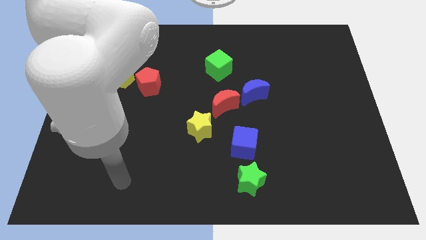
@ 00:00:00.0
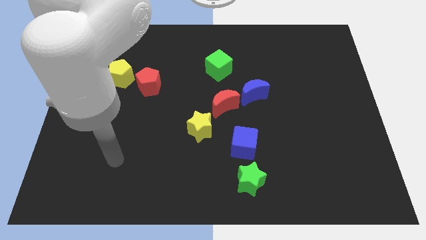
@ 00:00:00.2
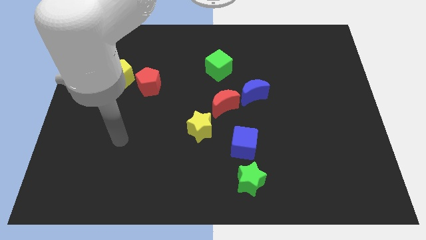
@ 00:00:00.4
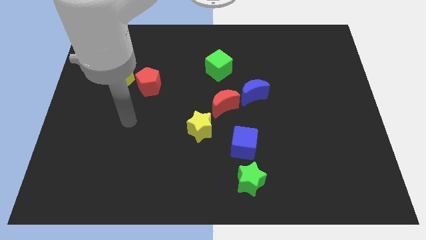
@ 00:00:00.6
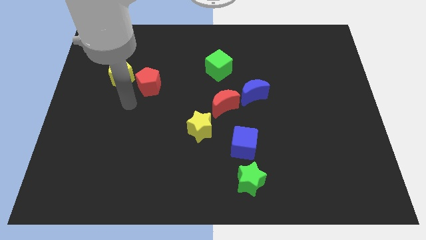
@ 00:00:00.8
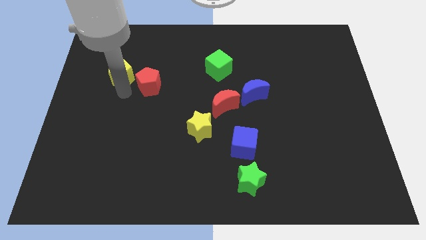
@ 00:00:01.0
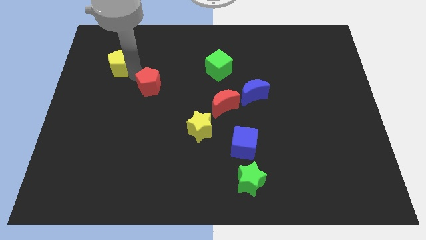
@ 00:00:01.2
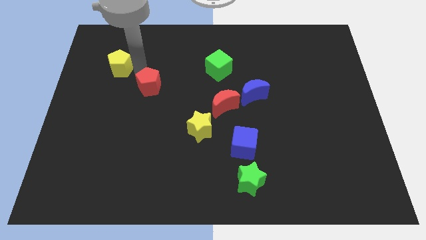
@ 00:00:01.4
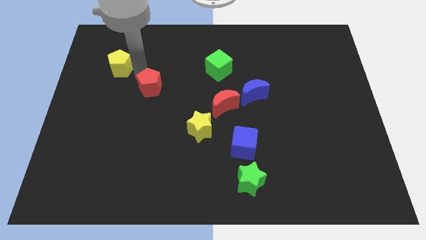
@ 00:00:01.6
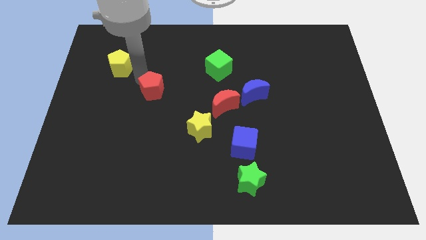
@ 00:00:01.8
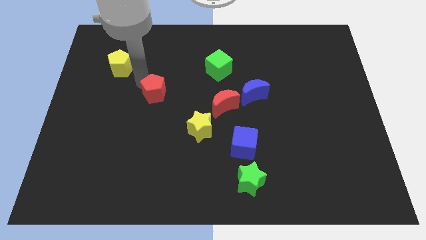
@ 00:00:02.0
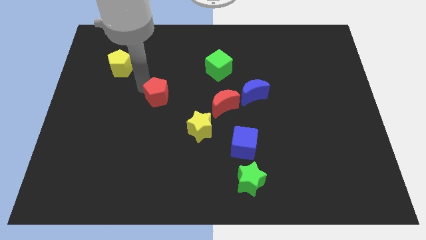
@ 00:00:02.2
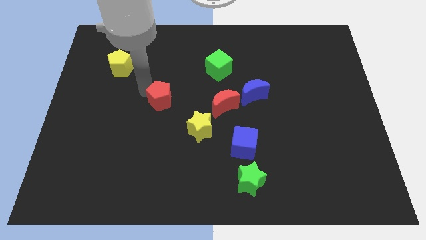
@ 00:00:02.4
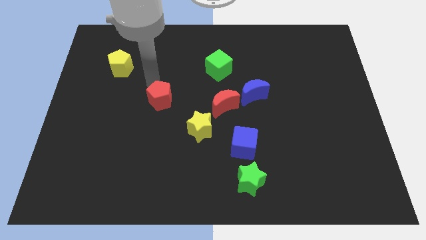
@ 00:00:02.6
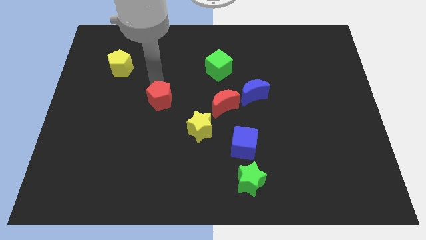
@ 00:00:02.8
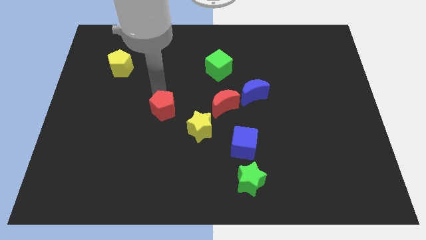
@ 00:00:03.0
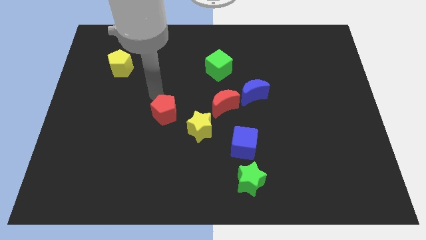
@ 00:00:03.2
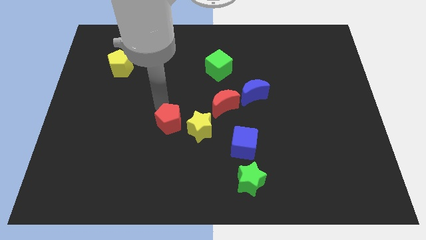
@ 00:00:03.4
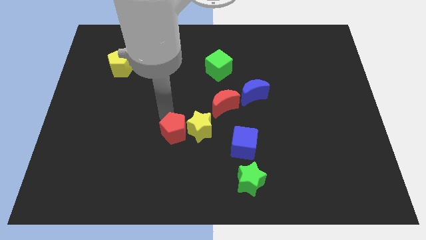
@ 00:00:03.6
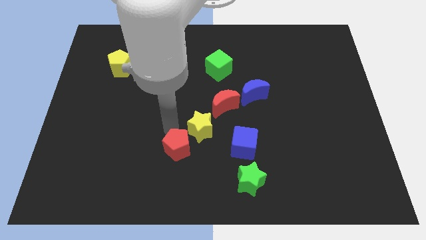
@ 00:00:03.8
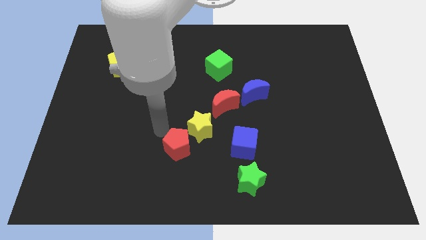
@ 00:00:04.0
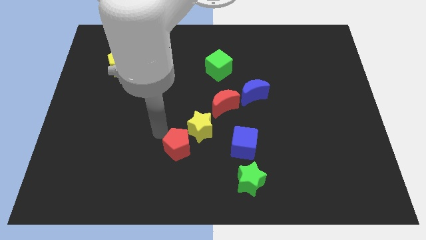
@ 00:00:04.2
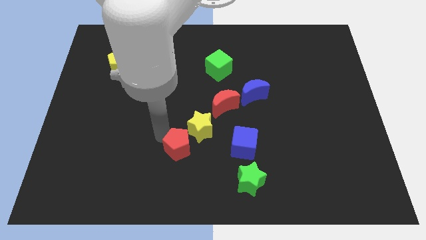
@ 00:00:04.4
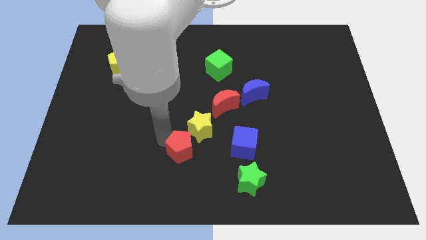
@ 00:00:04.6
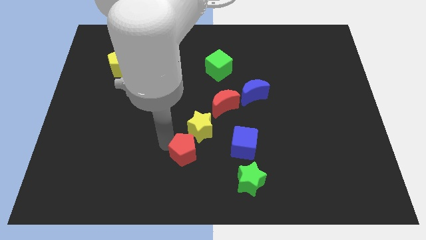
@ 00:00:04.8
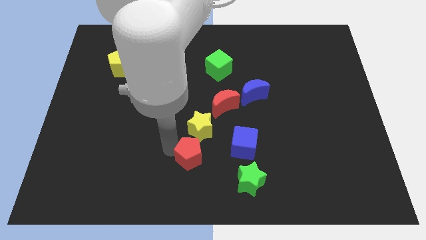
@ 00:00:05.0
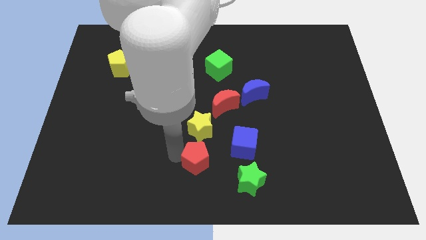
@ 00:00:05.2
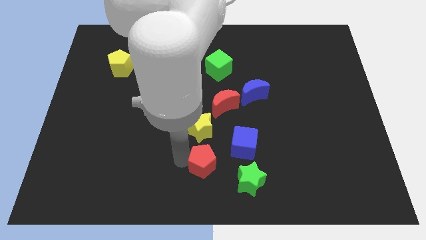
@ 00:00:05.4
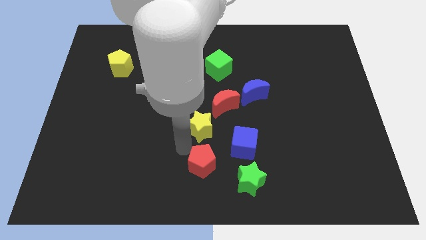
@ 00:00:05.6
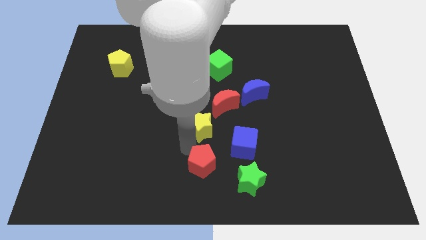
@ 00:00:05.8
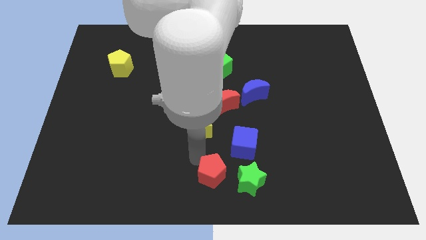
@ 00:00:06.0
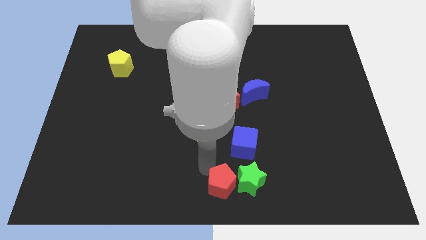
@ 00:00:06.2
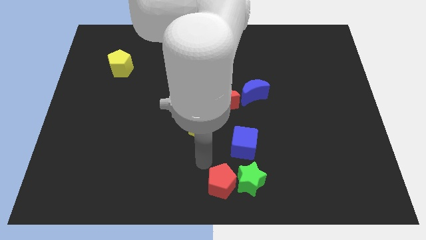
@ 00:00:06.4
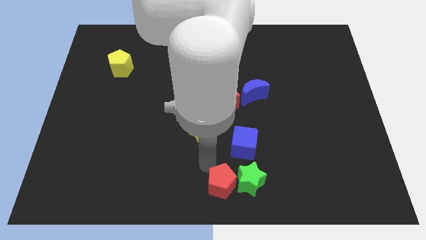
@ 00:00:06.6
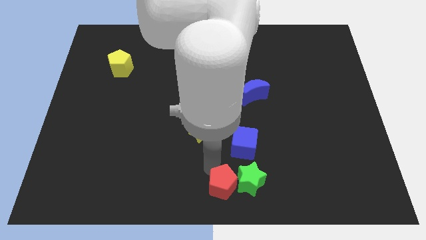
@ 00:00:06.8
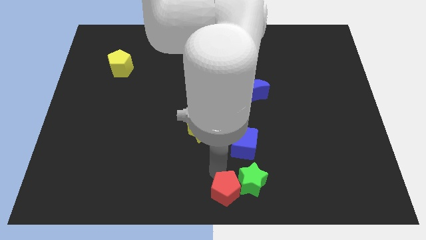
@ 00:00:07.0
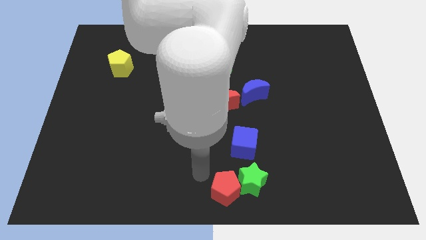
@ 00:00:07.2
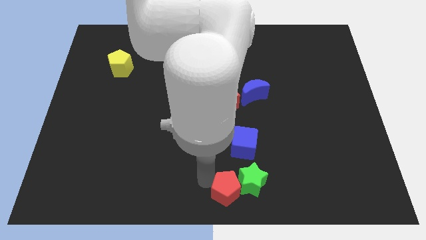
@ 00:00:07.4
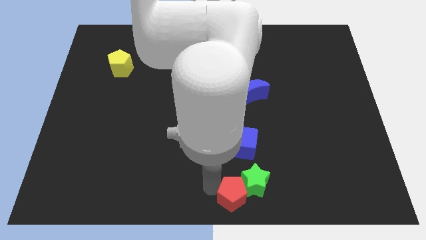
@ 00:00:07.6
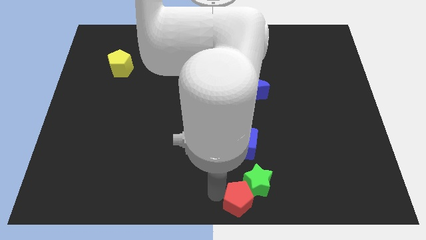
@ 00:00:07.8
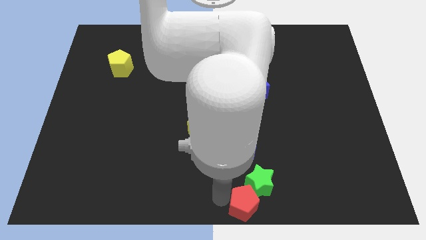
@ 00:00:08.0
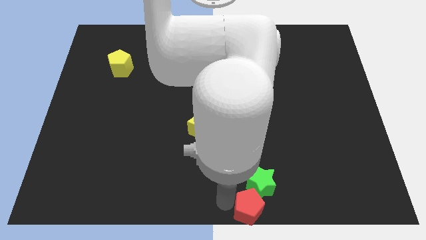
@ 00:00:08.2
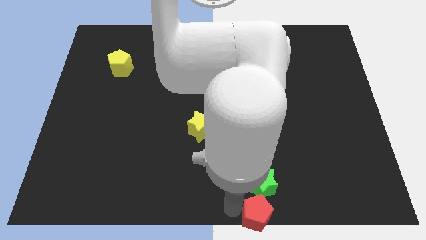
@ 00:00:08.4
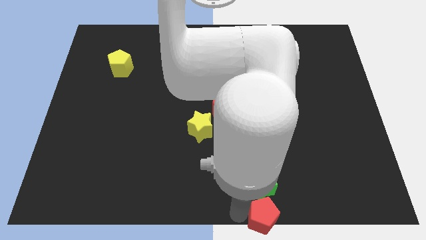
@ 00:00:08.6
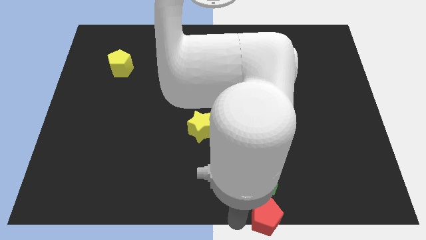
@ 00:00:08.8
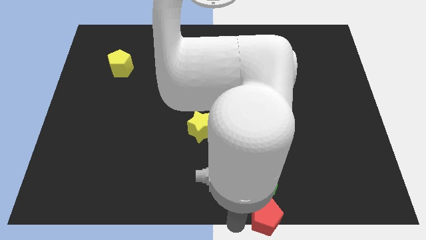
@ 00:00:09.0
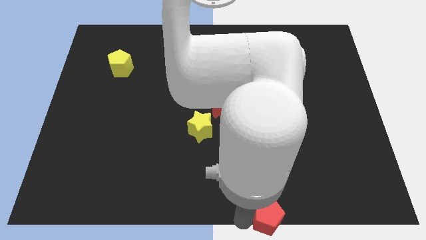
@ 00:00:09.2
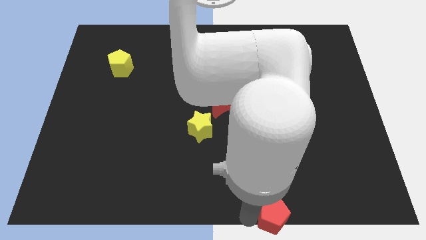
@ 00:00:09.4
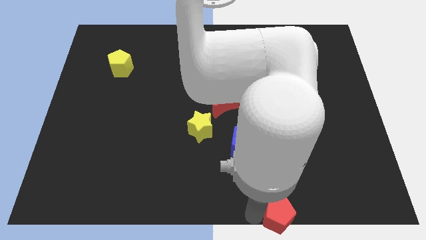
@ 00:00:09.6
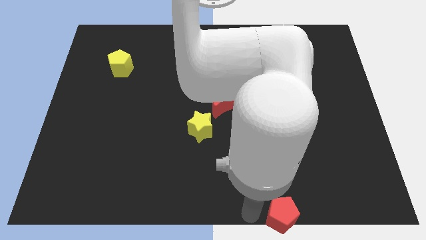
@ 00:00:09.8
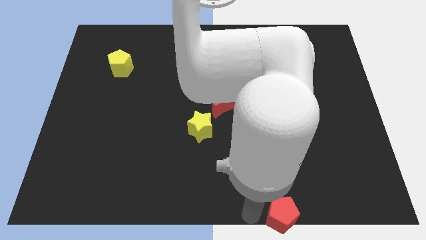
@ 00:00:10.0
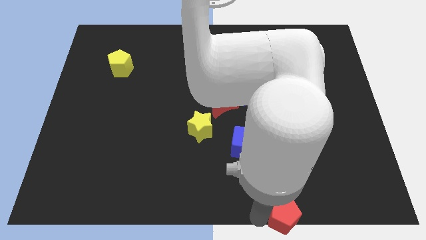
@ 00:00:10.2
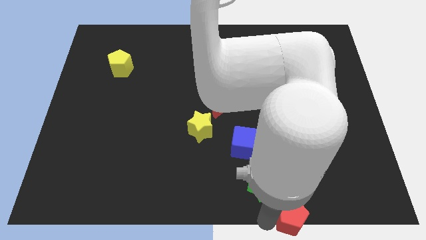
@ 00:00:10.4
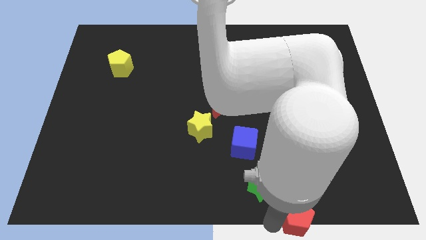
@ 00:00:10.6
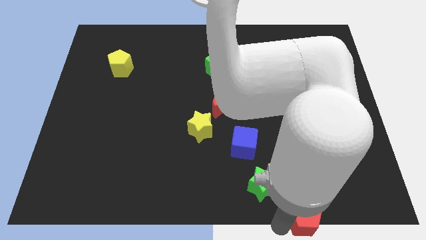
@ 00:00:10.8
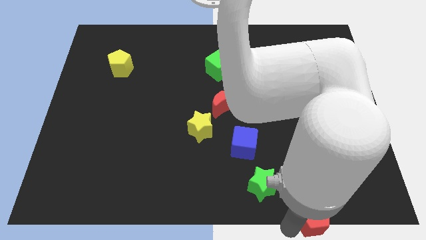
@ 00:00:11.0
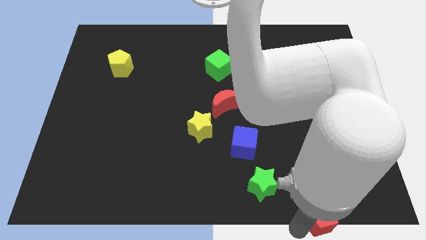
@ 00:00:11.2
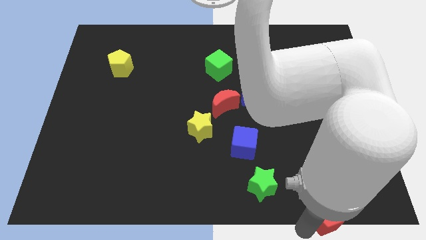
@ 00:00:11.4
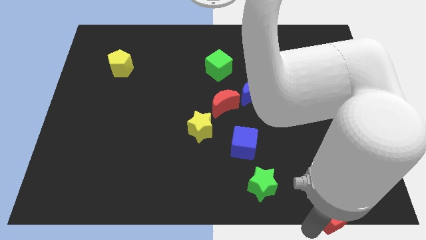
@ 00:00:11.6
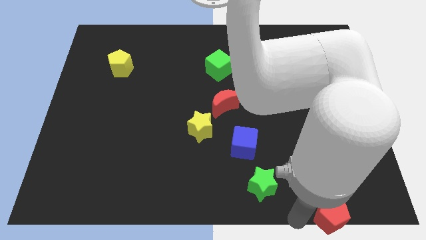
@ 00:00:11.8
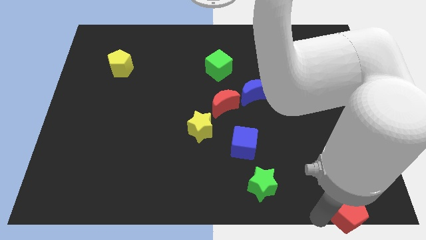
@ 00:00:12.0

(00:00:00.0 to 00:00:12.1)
slide the red pentagon to the lower right corner
